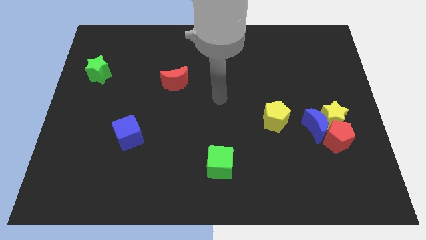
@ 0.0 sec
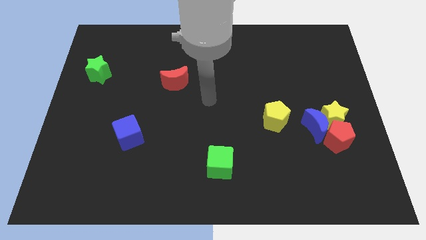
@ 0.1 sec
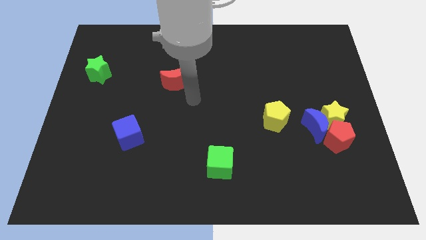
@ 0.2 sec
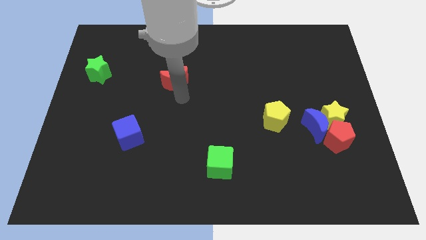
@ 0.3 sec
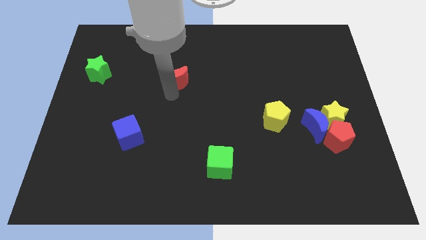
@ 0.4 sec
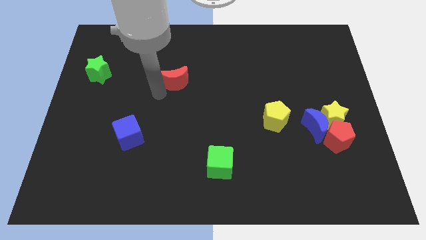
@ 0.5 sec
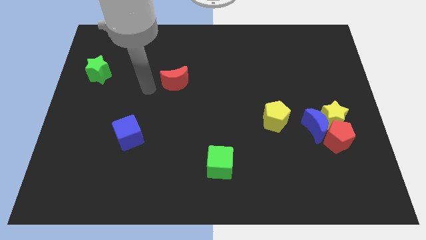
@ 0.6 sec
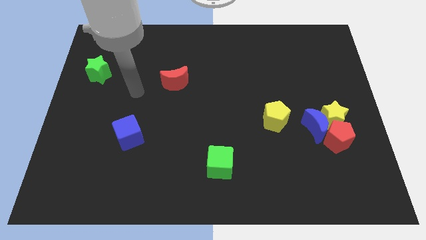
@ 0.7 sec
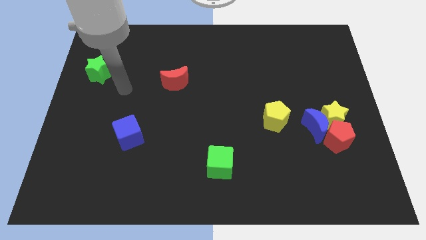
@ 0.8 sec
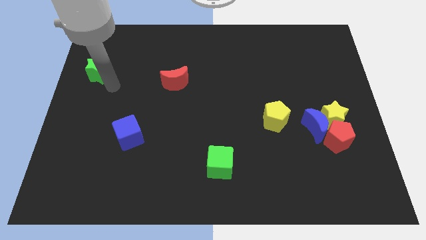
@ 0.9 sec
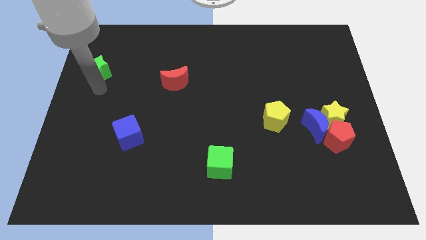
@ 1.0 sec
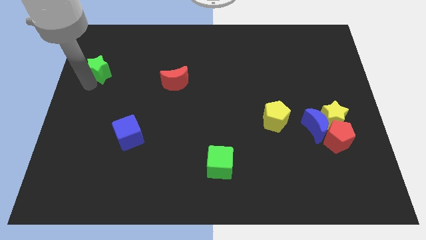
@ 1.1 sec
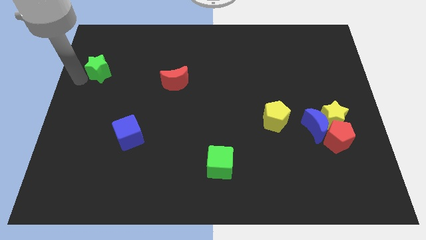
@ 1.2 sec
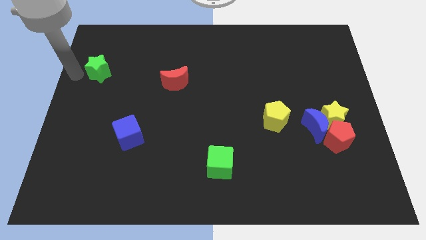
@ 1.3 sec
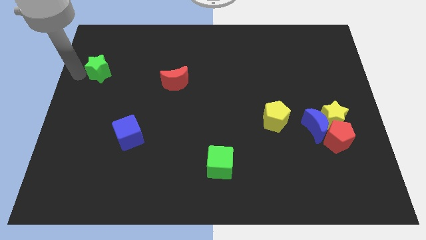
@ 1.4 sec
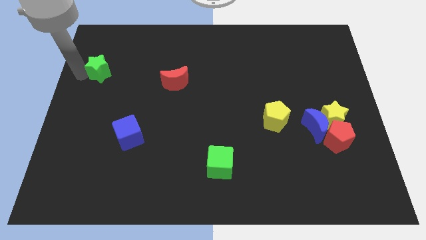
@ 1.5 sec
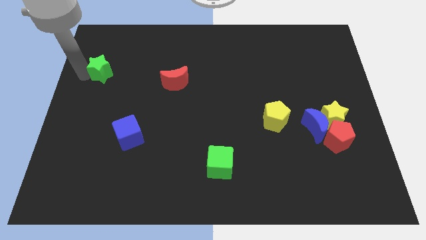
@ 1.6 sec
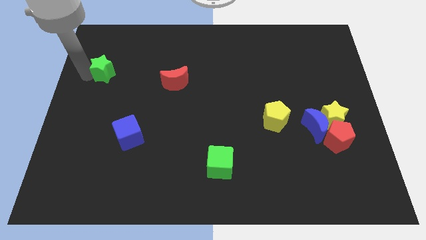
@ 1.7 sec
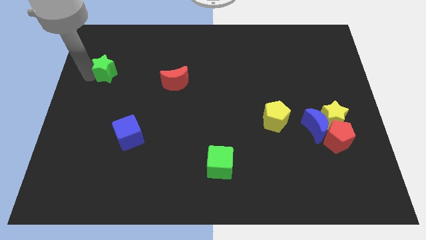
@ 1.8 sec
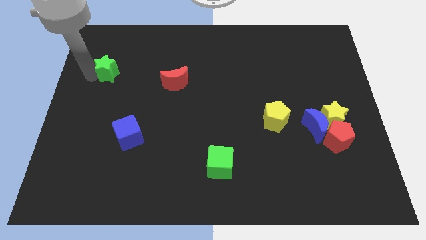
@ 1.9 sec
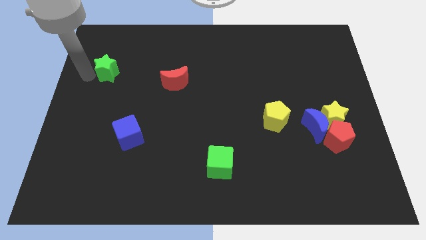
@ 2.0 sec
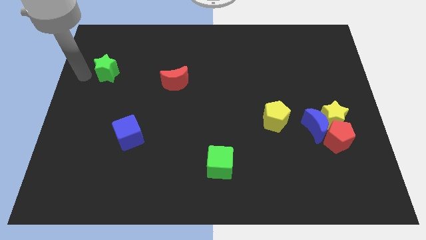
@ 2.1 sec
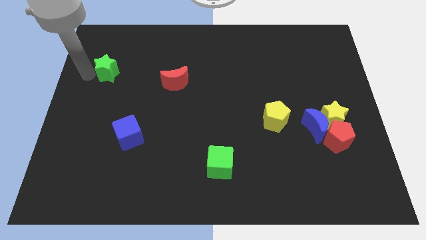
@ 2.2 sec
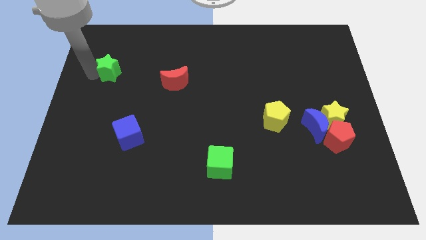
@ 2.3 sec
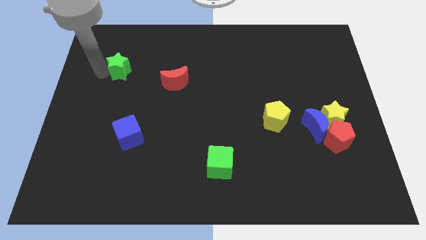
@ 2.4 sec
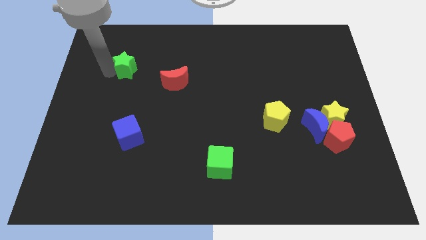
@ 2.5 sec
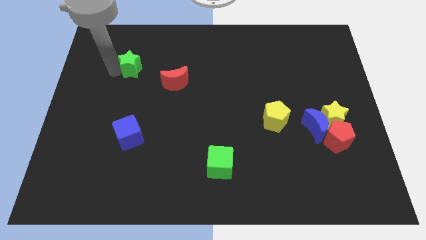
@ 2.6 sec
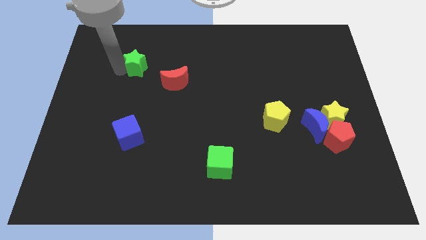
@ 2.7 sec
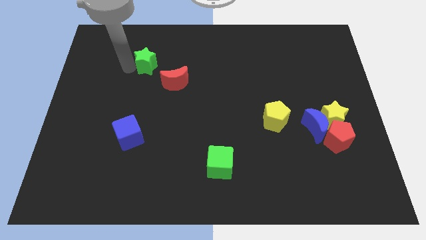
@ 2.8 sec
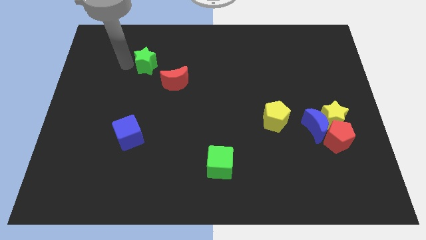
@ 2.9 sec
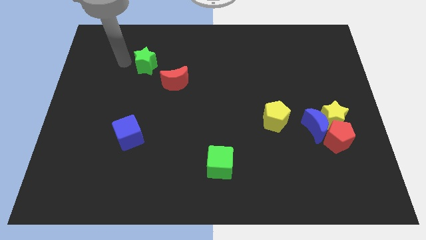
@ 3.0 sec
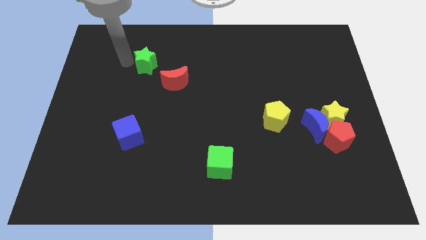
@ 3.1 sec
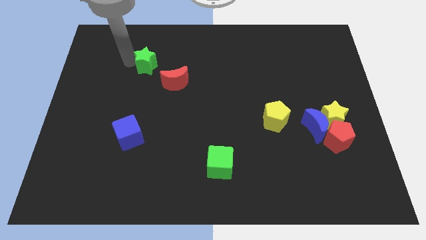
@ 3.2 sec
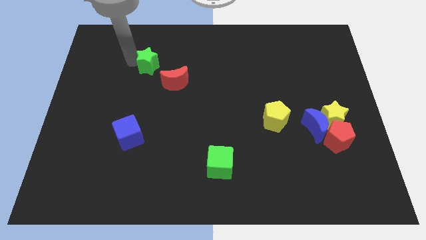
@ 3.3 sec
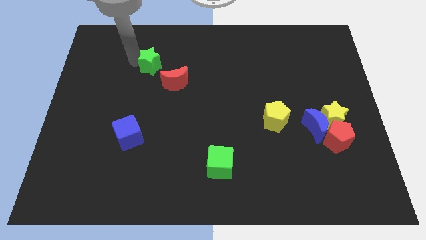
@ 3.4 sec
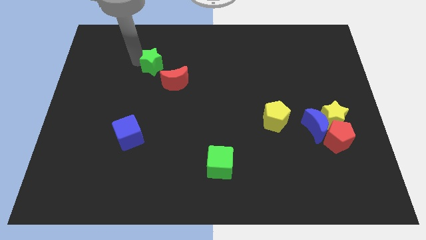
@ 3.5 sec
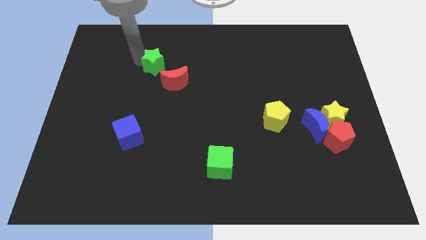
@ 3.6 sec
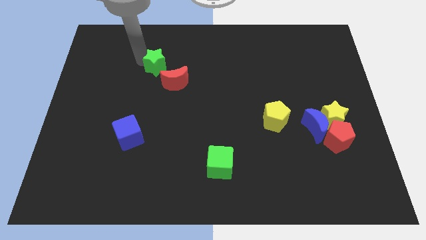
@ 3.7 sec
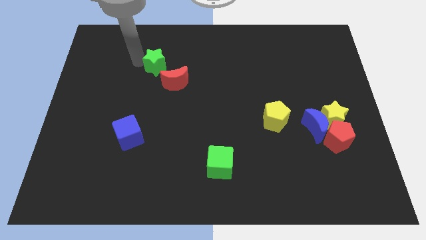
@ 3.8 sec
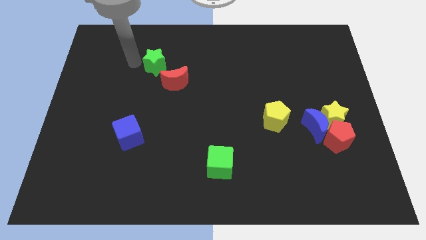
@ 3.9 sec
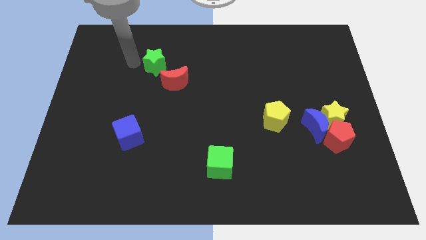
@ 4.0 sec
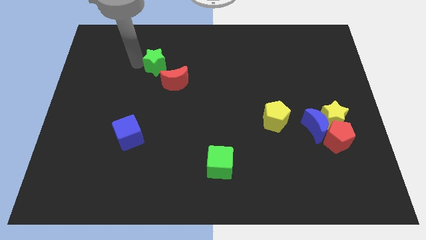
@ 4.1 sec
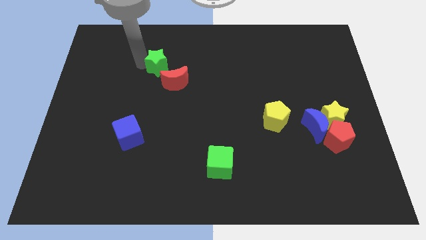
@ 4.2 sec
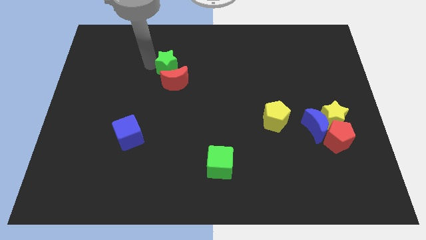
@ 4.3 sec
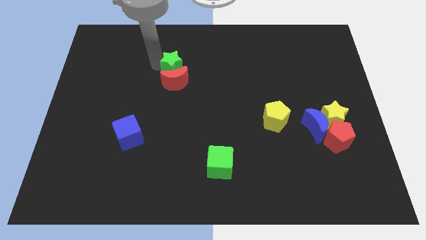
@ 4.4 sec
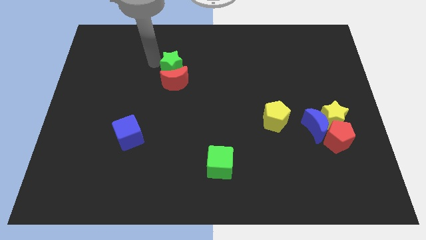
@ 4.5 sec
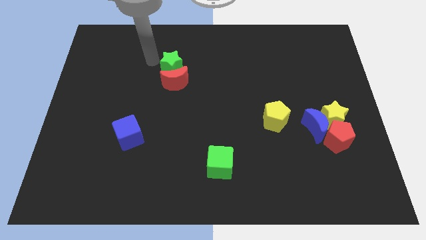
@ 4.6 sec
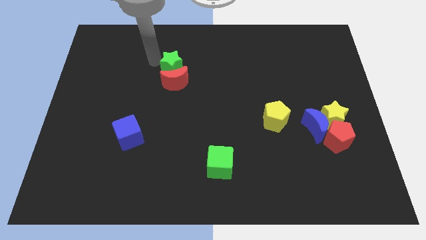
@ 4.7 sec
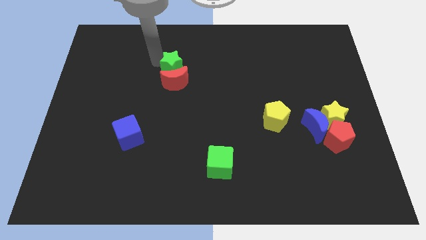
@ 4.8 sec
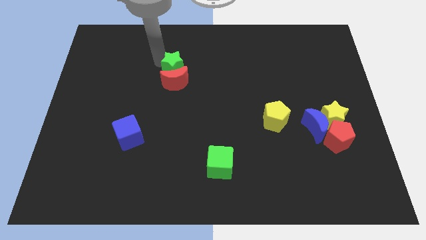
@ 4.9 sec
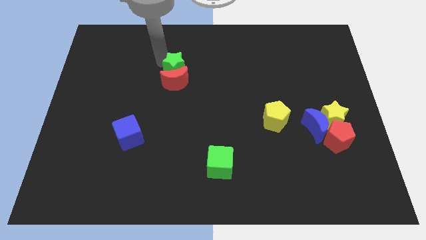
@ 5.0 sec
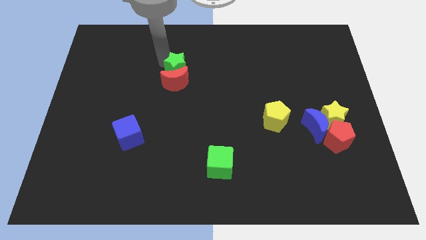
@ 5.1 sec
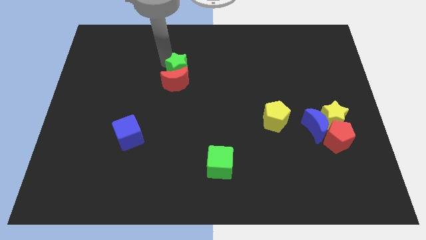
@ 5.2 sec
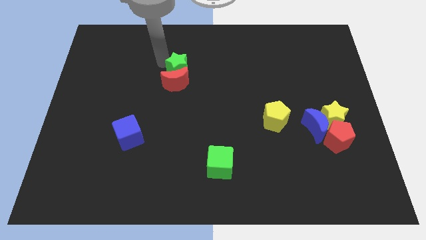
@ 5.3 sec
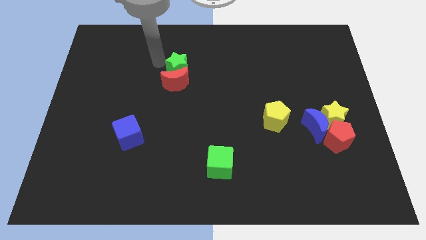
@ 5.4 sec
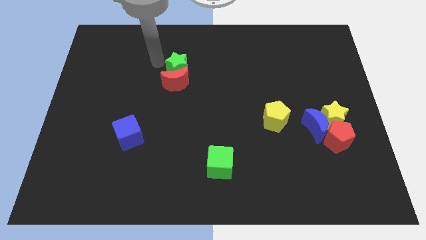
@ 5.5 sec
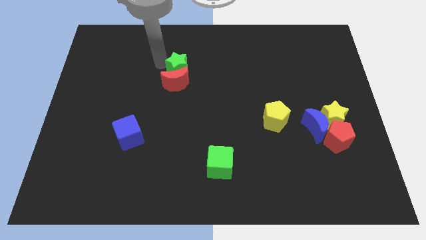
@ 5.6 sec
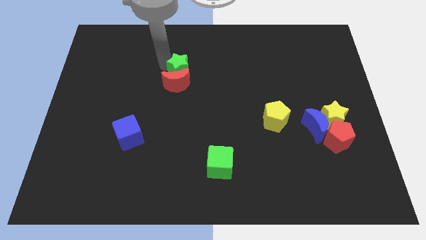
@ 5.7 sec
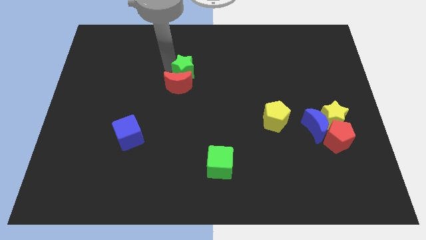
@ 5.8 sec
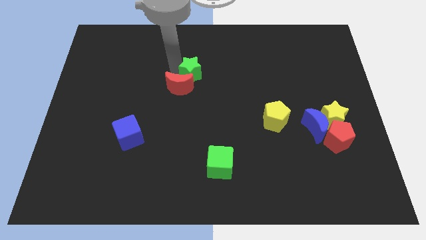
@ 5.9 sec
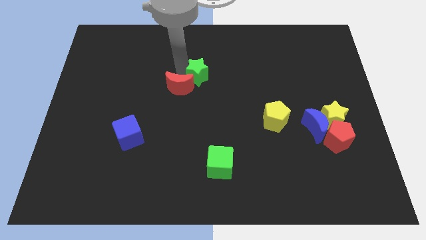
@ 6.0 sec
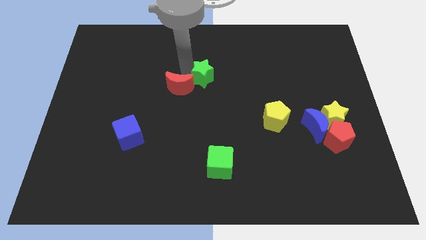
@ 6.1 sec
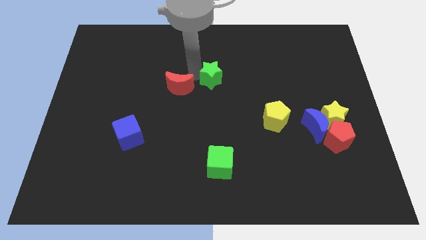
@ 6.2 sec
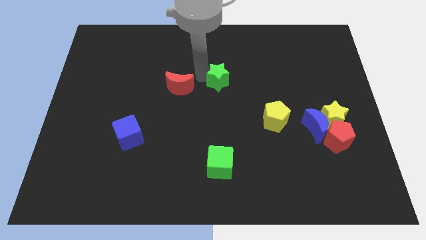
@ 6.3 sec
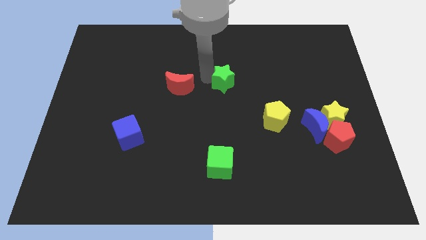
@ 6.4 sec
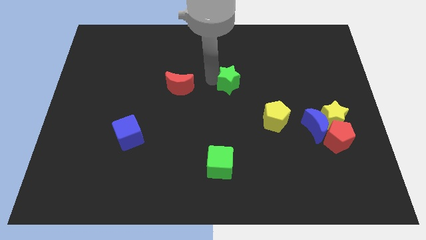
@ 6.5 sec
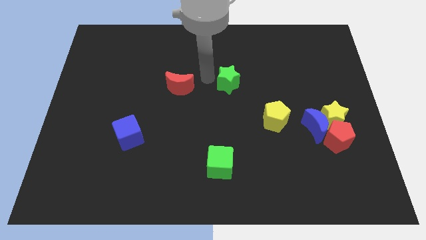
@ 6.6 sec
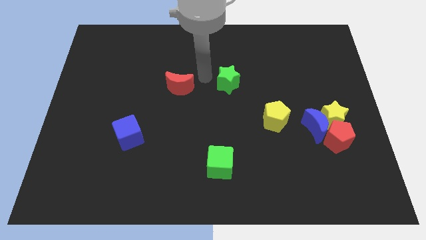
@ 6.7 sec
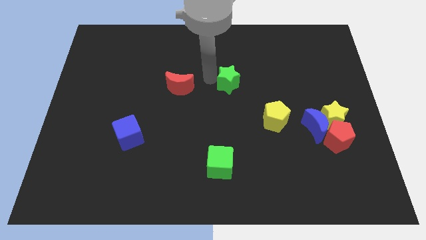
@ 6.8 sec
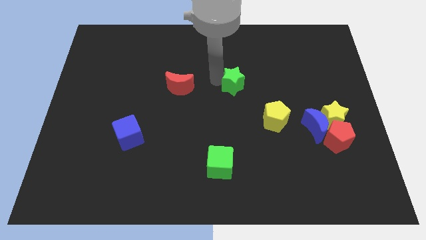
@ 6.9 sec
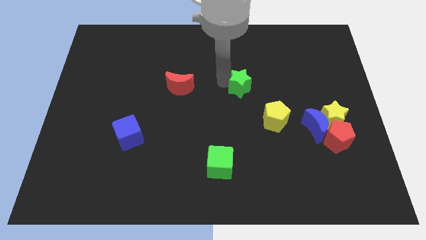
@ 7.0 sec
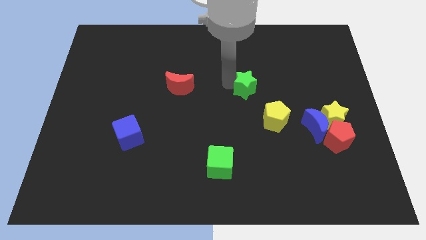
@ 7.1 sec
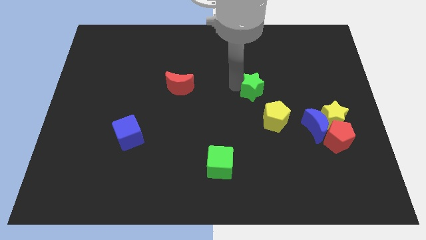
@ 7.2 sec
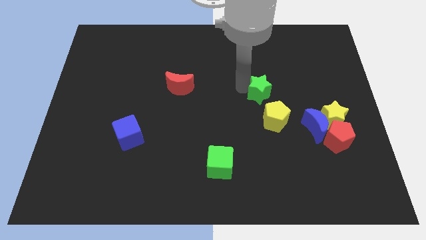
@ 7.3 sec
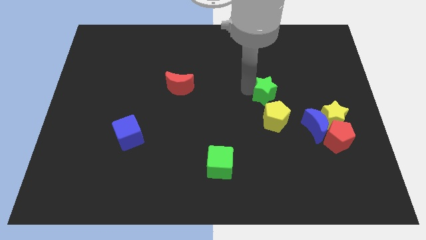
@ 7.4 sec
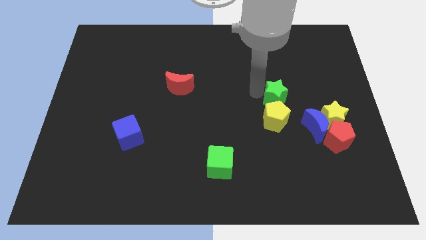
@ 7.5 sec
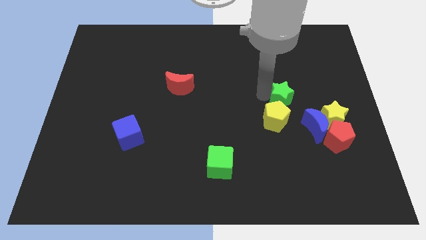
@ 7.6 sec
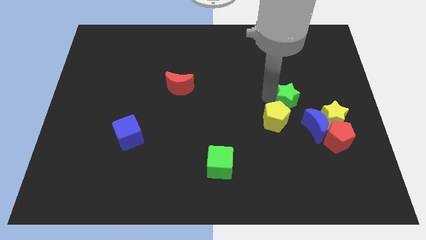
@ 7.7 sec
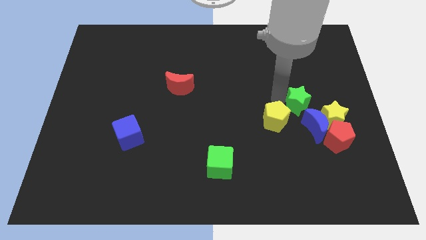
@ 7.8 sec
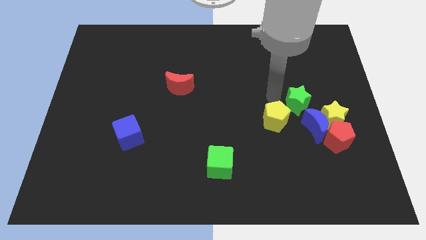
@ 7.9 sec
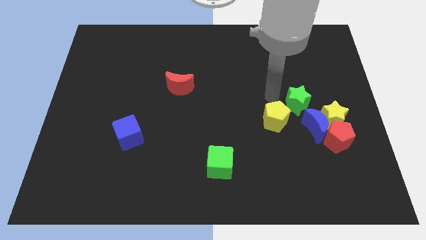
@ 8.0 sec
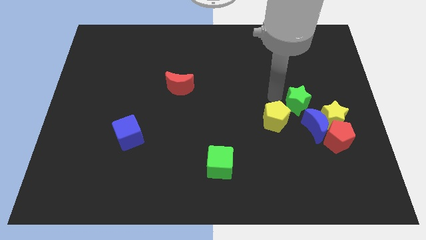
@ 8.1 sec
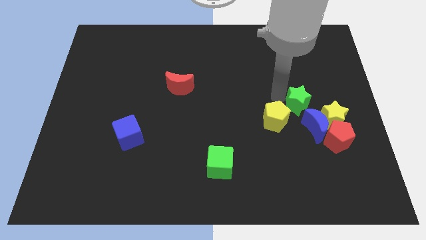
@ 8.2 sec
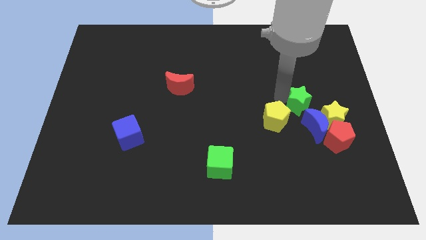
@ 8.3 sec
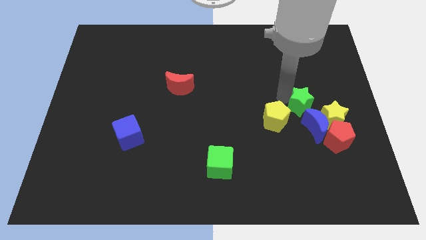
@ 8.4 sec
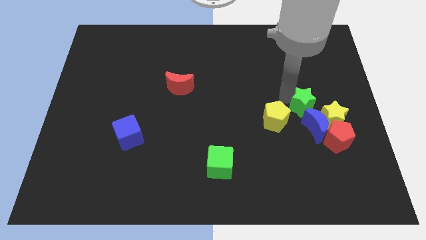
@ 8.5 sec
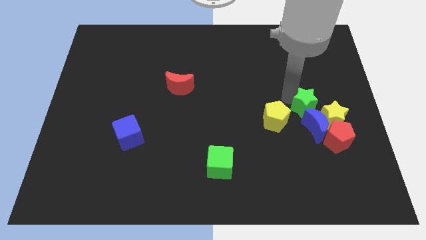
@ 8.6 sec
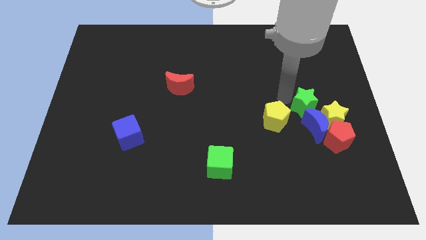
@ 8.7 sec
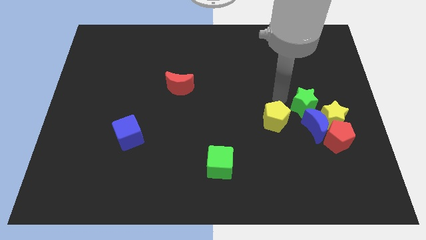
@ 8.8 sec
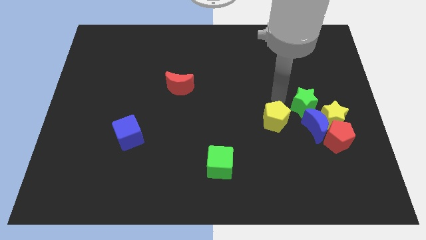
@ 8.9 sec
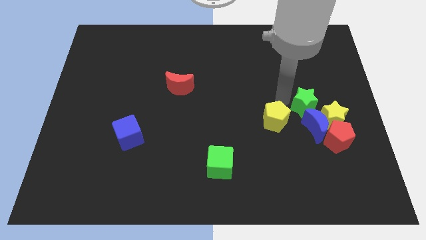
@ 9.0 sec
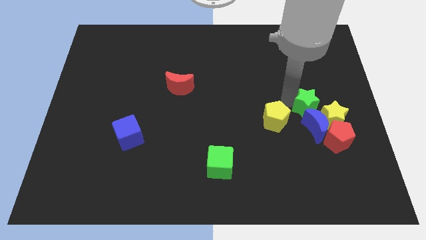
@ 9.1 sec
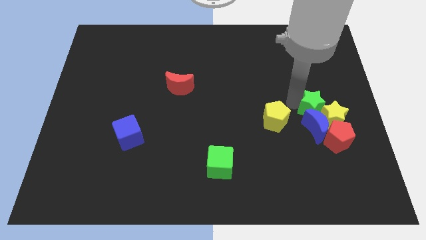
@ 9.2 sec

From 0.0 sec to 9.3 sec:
move the green star close to the yellow star
